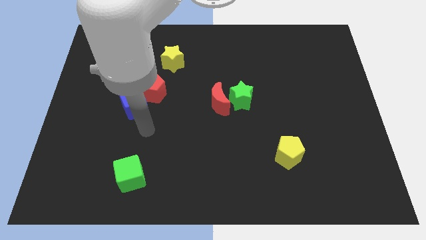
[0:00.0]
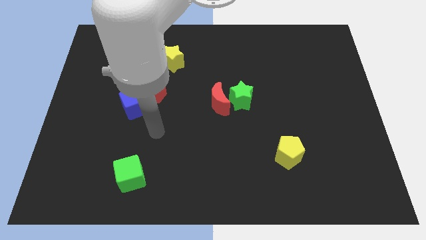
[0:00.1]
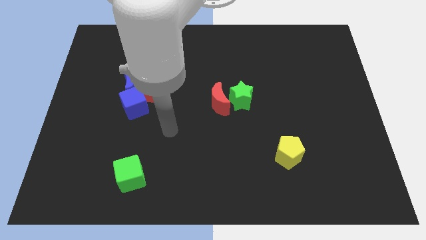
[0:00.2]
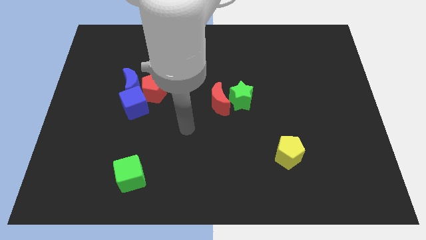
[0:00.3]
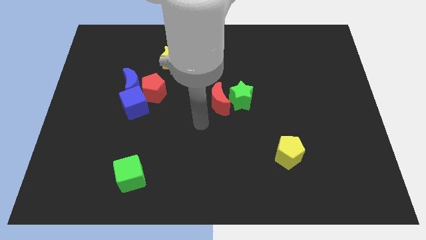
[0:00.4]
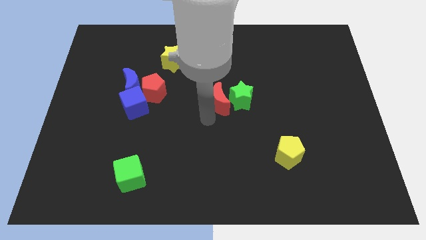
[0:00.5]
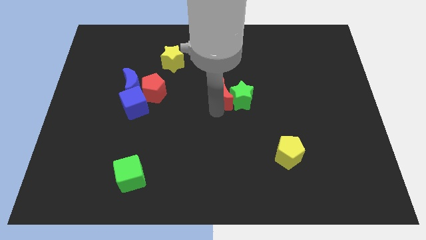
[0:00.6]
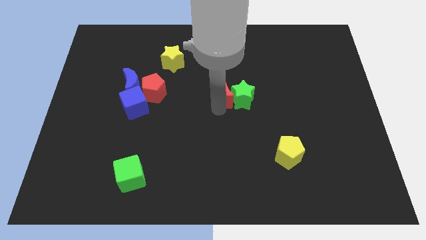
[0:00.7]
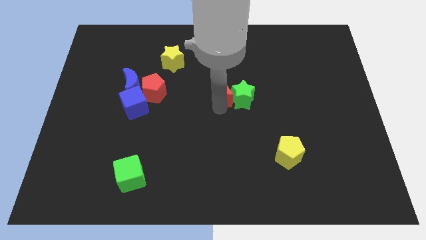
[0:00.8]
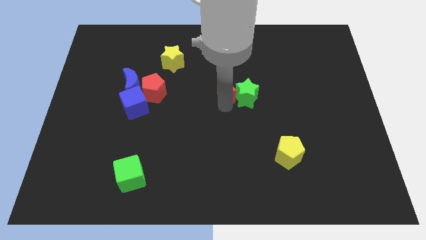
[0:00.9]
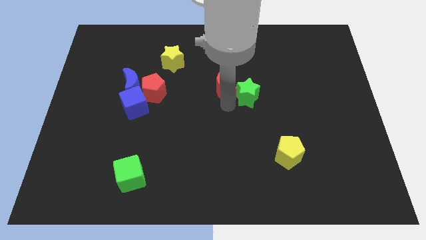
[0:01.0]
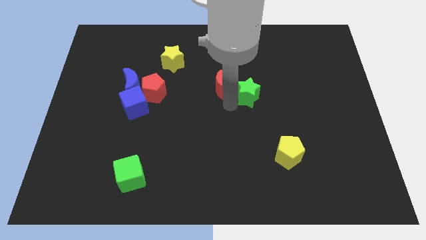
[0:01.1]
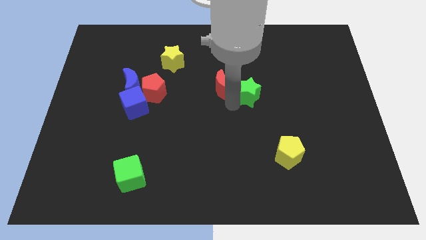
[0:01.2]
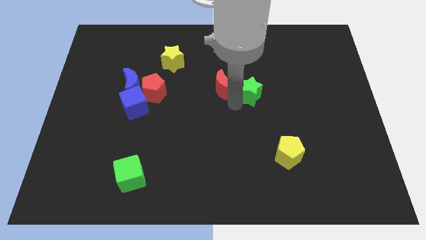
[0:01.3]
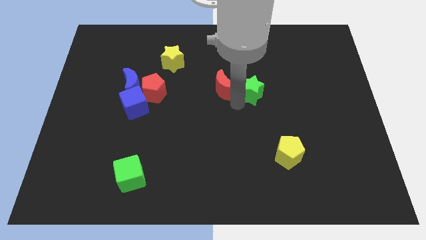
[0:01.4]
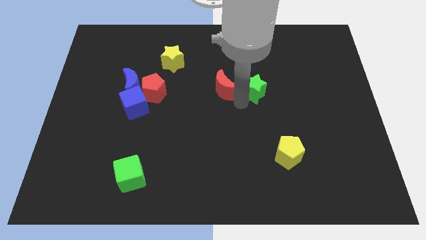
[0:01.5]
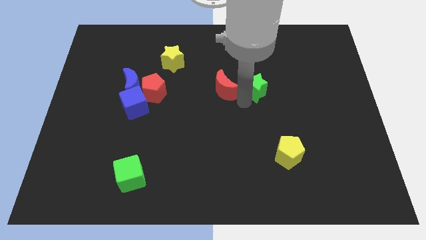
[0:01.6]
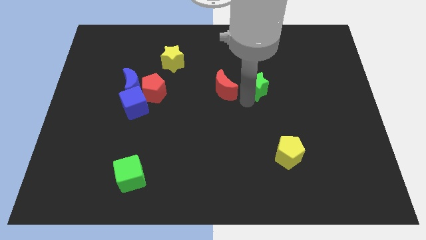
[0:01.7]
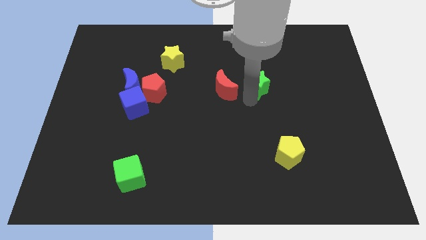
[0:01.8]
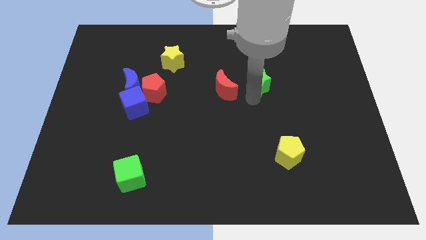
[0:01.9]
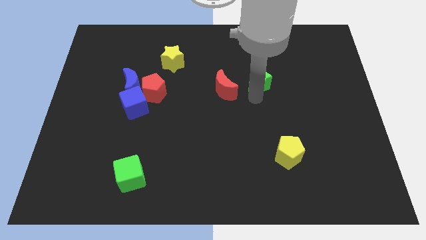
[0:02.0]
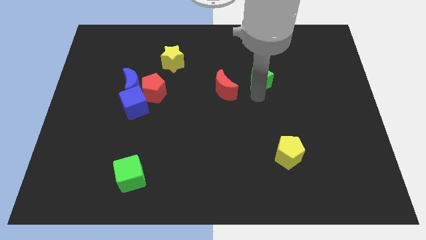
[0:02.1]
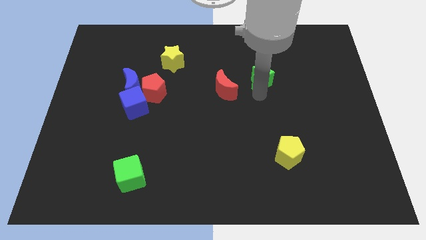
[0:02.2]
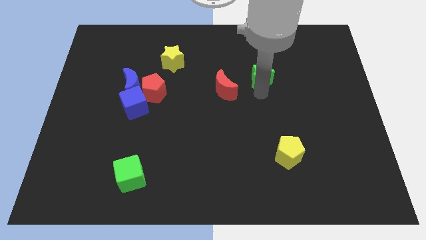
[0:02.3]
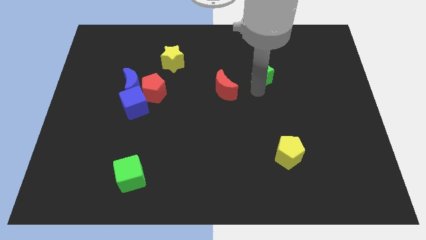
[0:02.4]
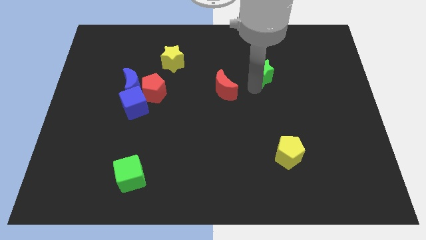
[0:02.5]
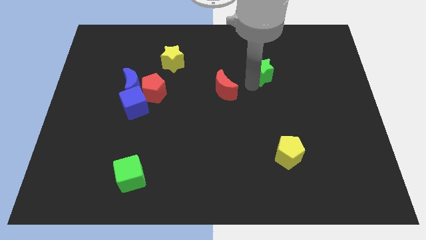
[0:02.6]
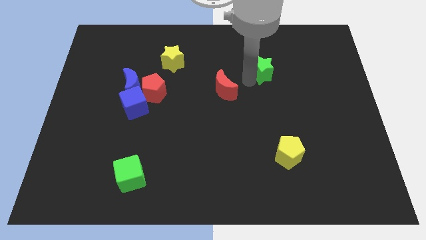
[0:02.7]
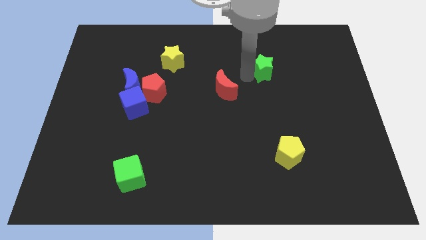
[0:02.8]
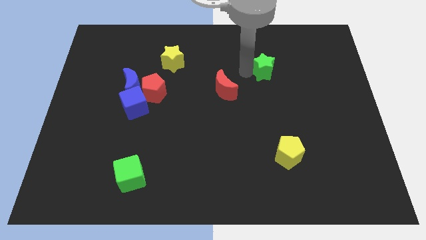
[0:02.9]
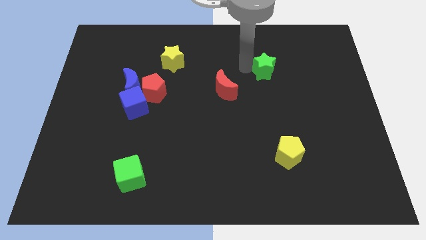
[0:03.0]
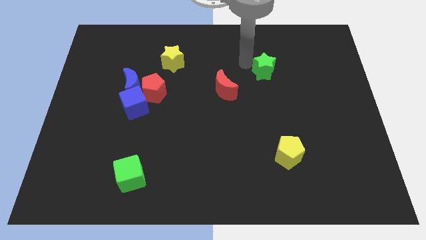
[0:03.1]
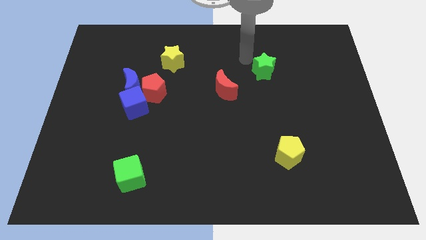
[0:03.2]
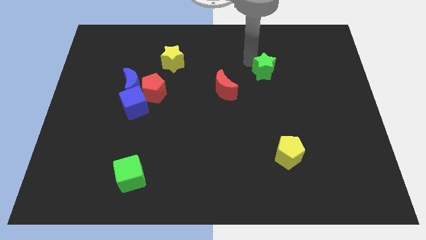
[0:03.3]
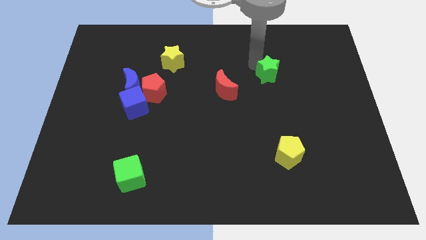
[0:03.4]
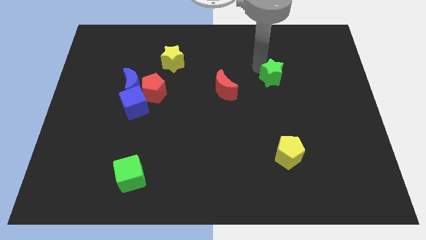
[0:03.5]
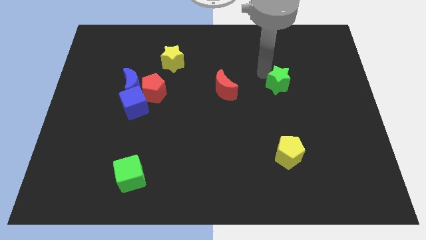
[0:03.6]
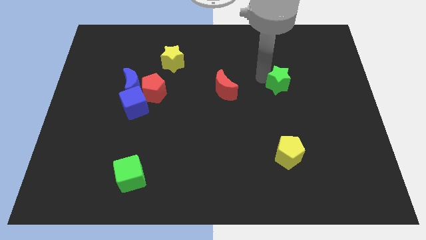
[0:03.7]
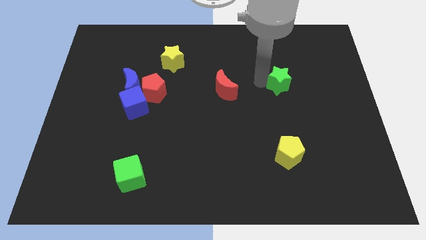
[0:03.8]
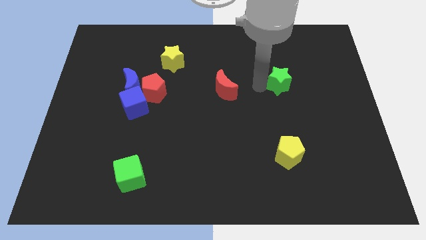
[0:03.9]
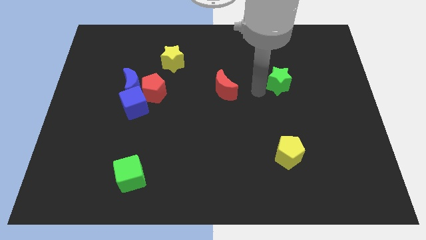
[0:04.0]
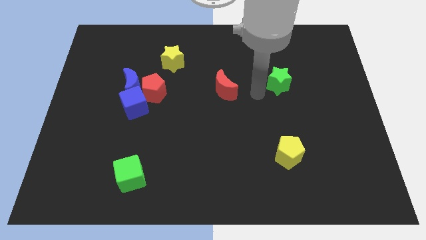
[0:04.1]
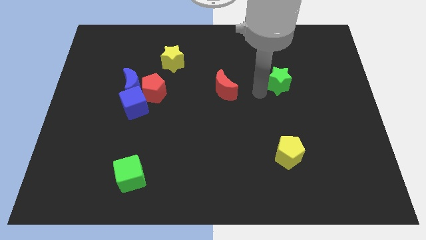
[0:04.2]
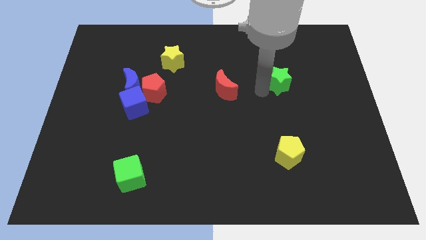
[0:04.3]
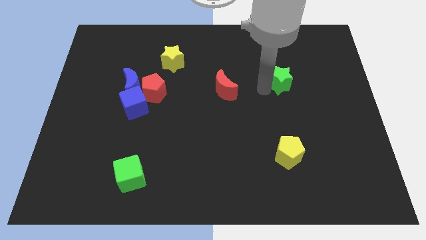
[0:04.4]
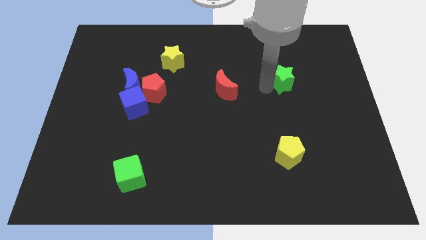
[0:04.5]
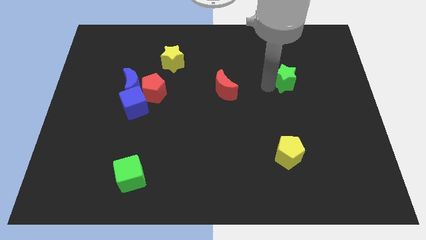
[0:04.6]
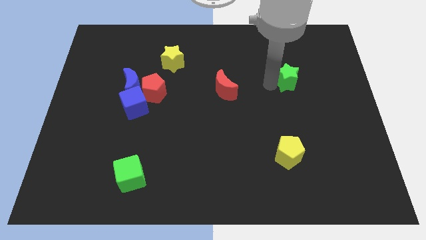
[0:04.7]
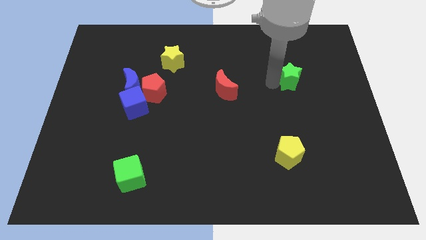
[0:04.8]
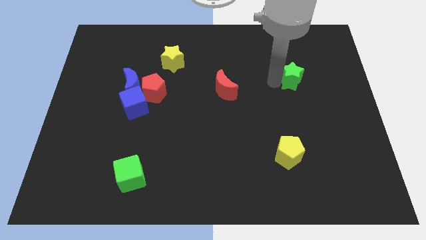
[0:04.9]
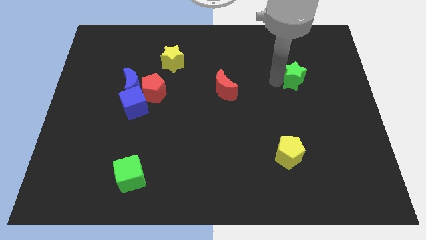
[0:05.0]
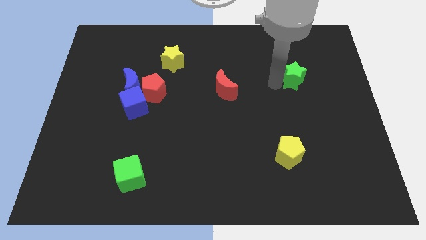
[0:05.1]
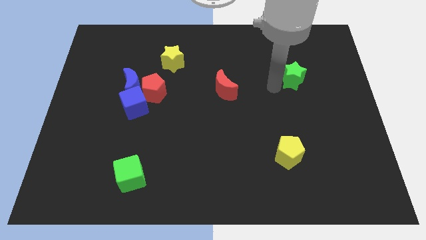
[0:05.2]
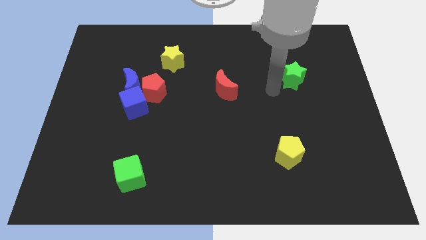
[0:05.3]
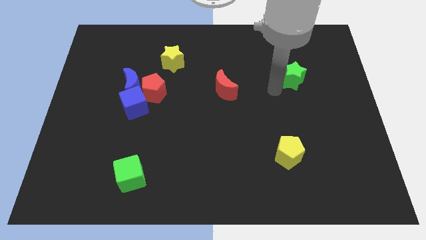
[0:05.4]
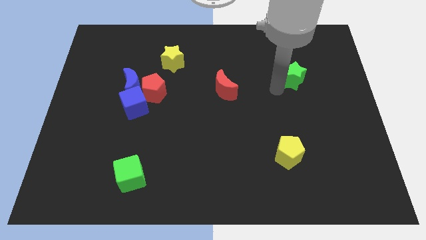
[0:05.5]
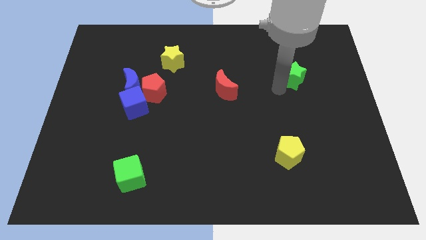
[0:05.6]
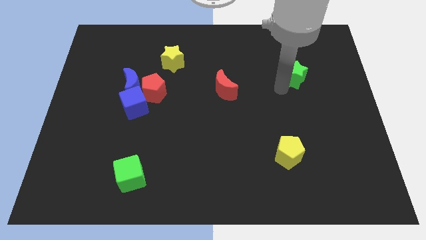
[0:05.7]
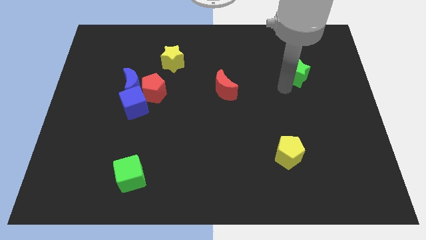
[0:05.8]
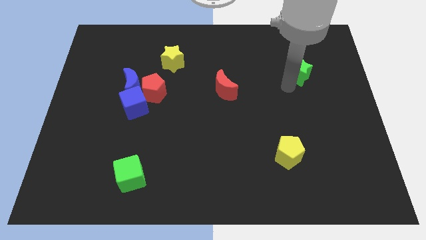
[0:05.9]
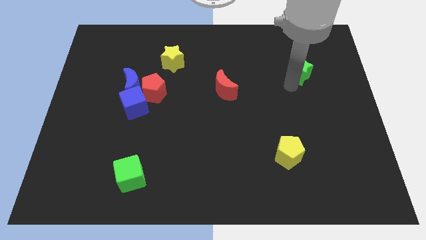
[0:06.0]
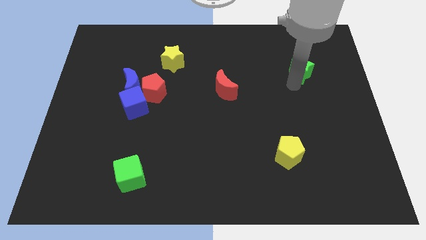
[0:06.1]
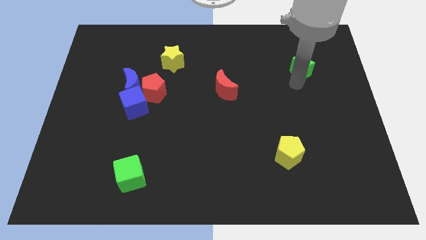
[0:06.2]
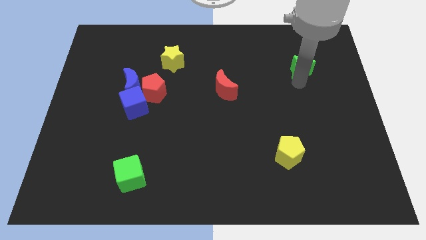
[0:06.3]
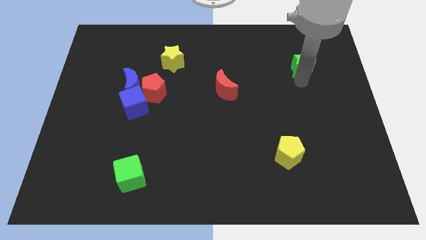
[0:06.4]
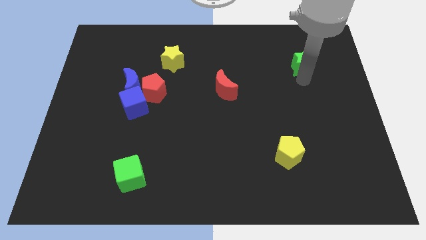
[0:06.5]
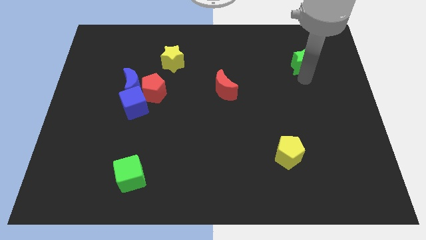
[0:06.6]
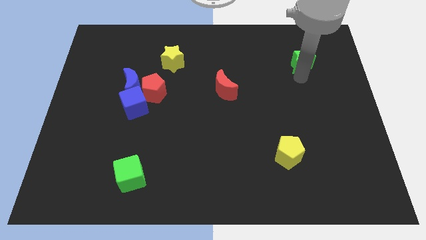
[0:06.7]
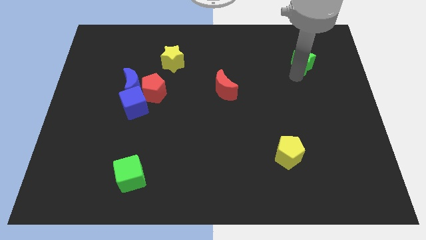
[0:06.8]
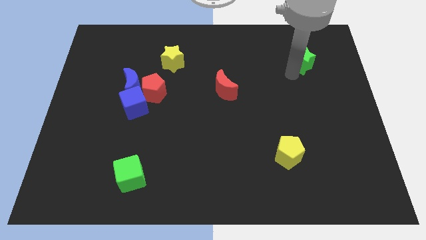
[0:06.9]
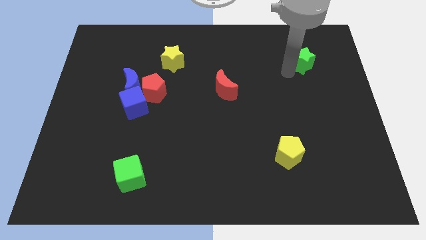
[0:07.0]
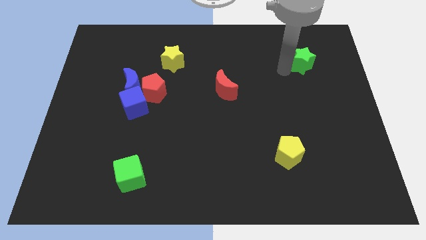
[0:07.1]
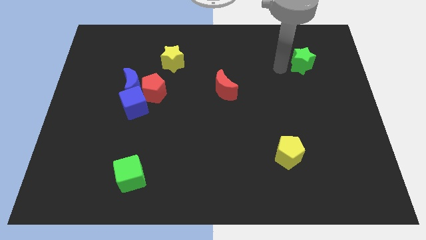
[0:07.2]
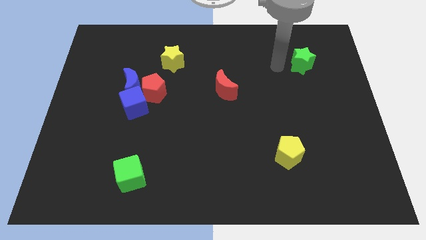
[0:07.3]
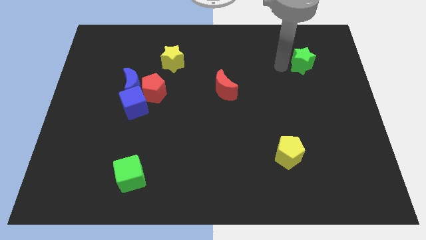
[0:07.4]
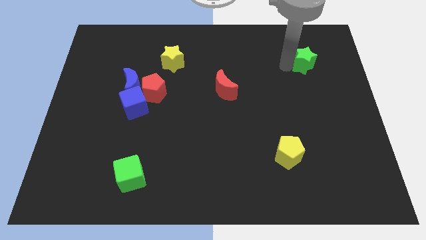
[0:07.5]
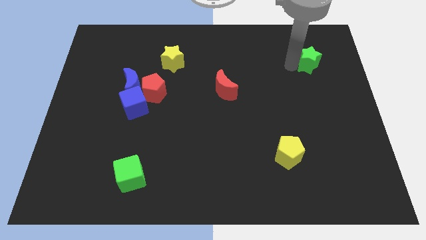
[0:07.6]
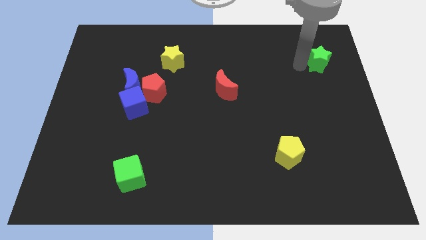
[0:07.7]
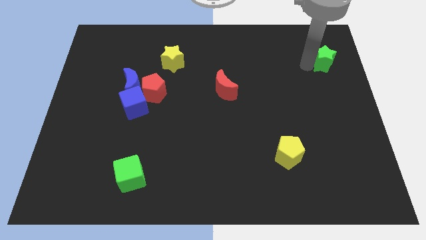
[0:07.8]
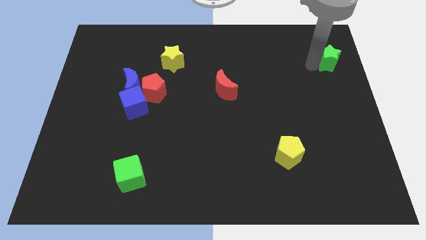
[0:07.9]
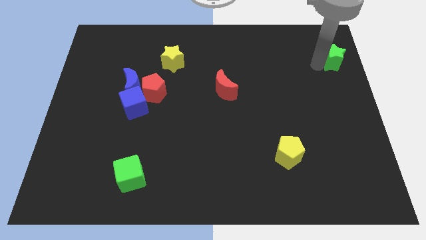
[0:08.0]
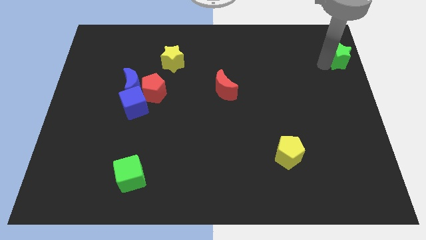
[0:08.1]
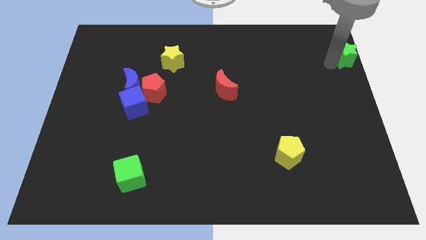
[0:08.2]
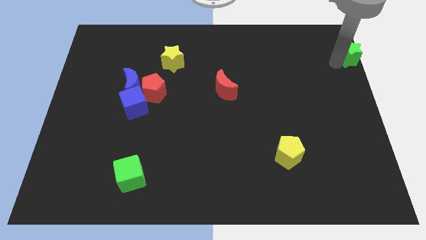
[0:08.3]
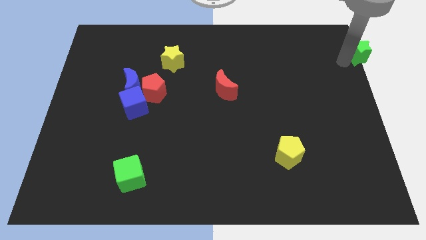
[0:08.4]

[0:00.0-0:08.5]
put the green star to the top right of the board
